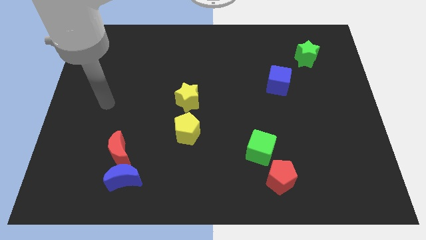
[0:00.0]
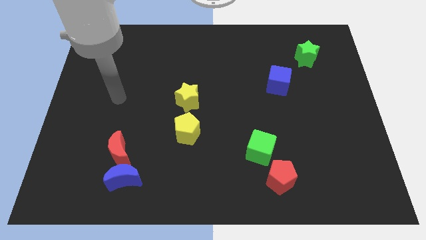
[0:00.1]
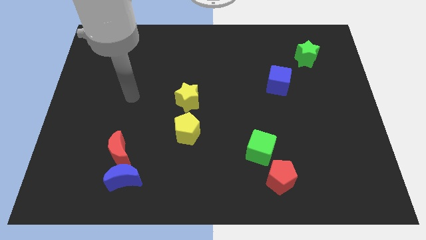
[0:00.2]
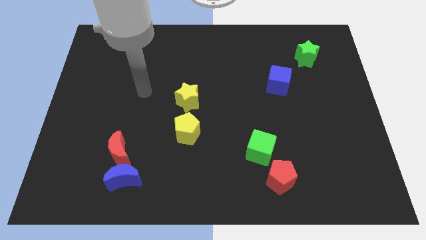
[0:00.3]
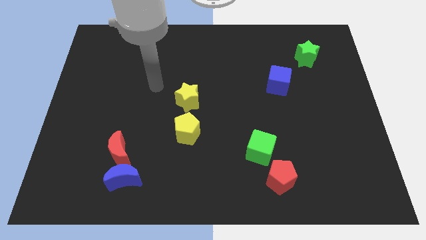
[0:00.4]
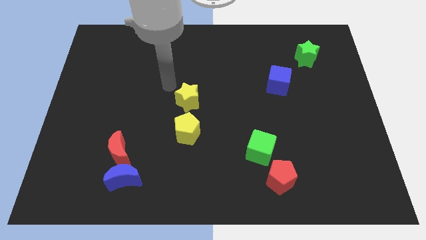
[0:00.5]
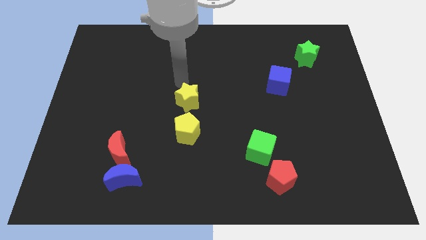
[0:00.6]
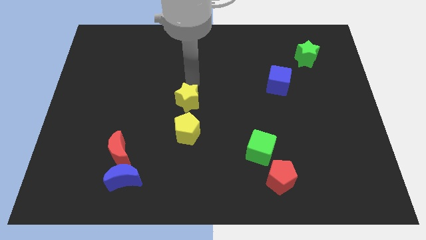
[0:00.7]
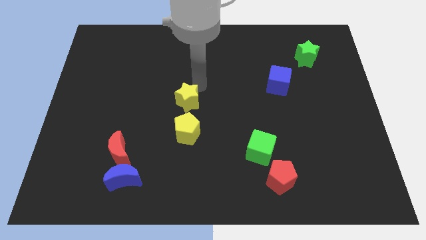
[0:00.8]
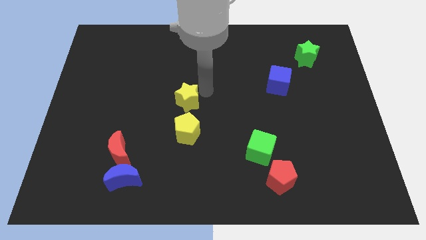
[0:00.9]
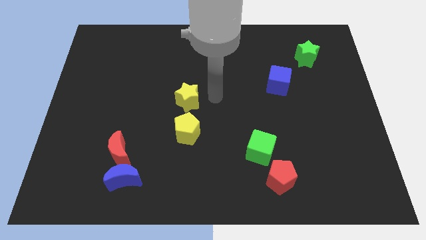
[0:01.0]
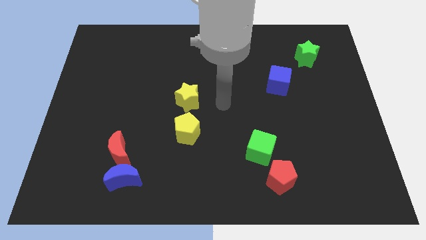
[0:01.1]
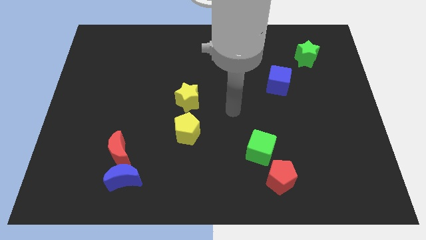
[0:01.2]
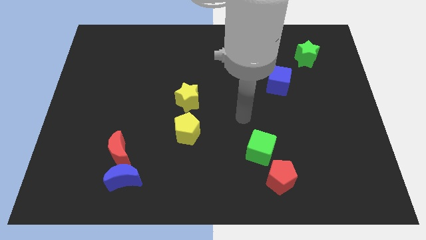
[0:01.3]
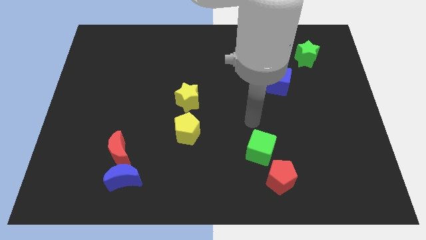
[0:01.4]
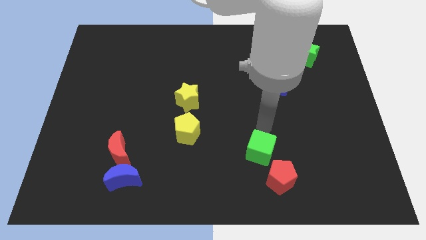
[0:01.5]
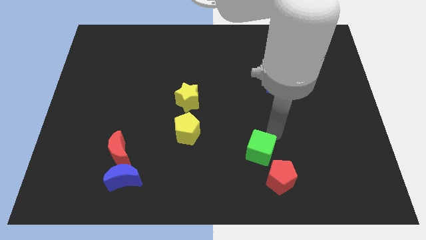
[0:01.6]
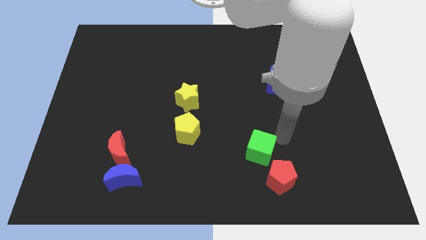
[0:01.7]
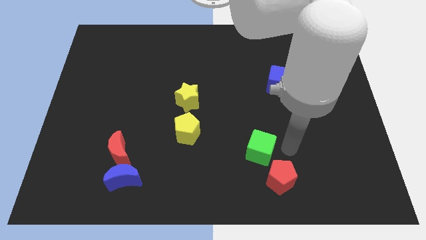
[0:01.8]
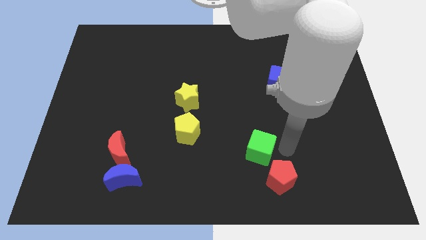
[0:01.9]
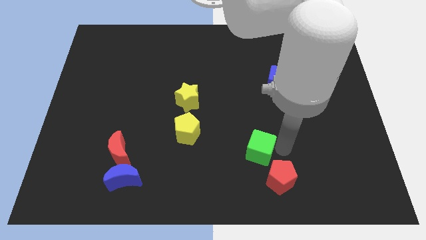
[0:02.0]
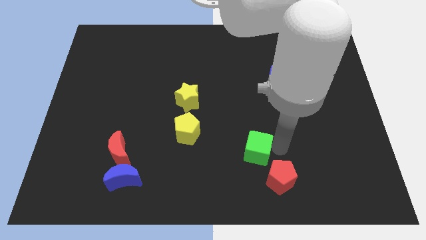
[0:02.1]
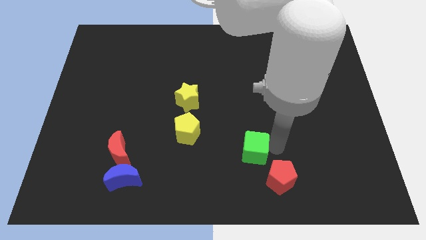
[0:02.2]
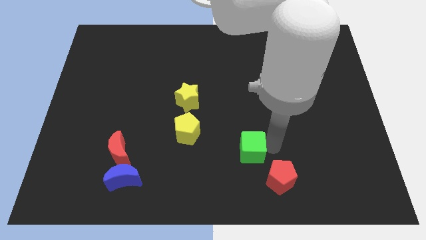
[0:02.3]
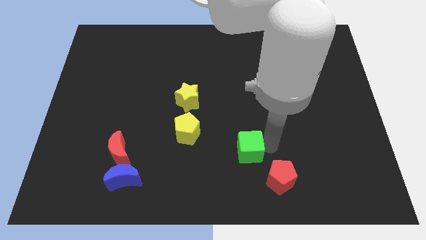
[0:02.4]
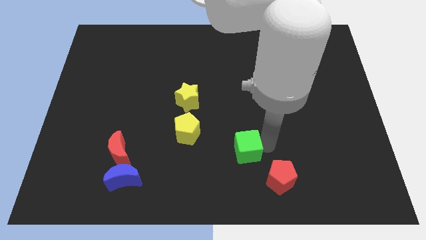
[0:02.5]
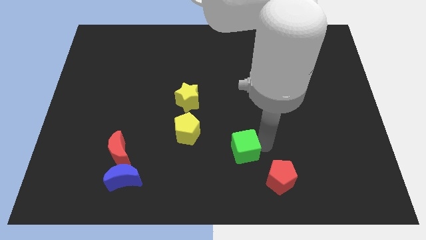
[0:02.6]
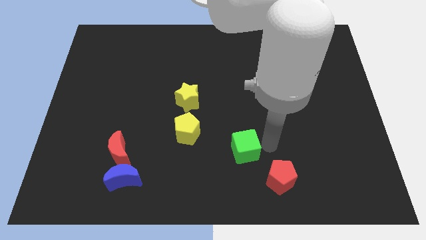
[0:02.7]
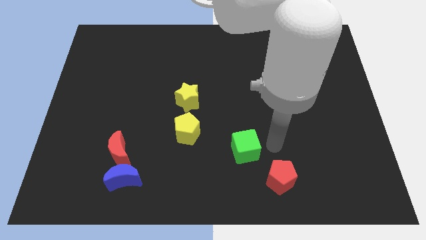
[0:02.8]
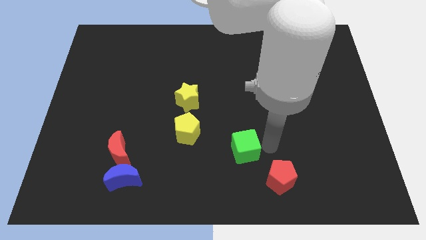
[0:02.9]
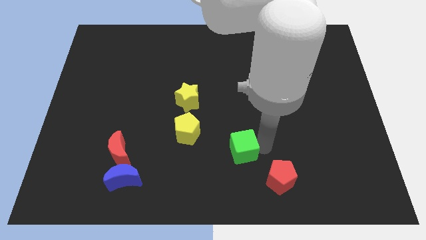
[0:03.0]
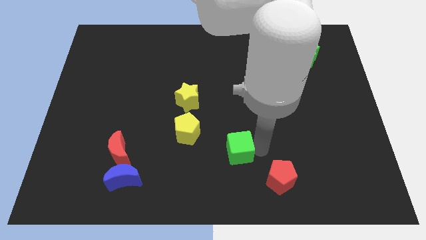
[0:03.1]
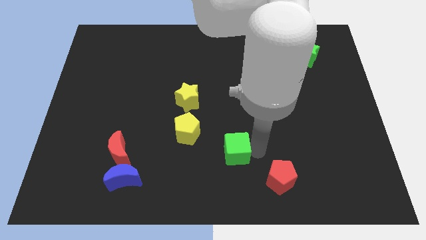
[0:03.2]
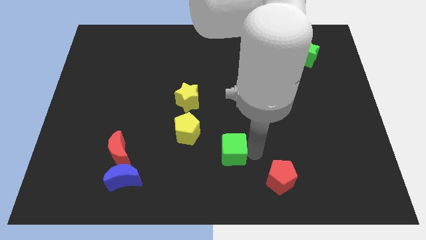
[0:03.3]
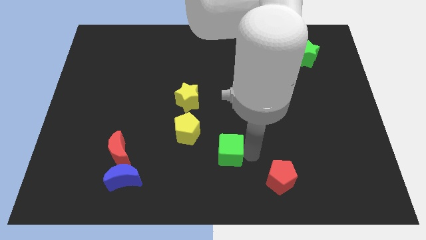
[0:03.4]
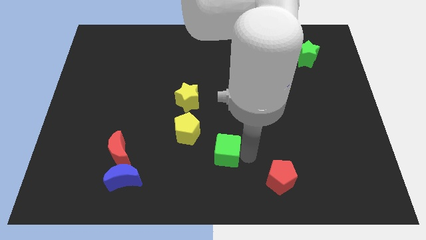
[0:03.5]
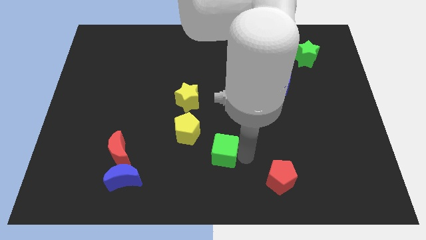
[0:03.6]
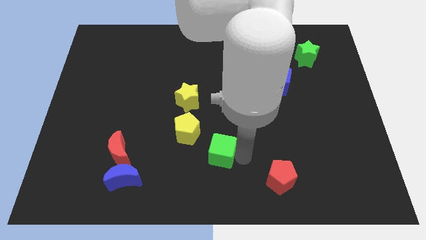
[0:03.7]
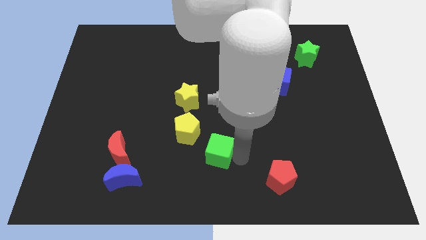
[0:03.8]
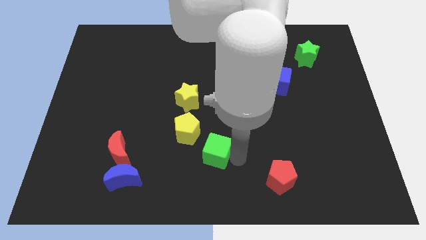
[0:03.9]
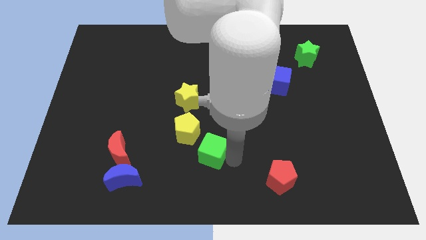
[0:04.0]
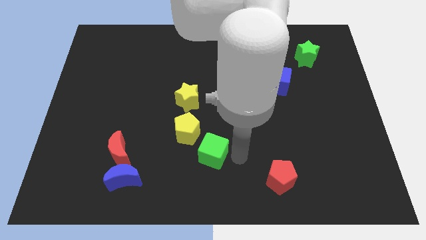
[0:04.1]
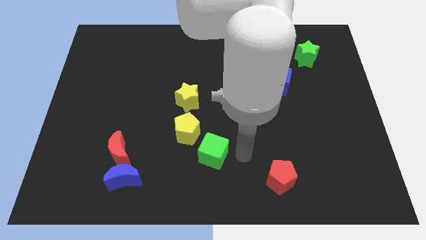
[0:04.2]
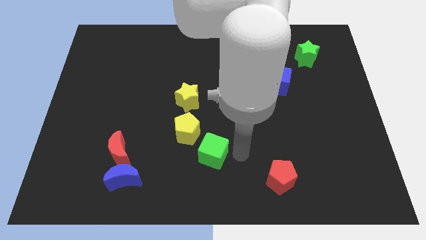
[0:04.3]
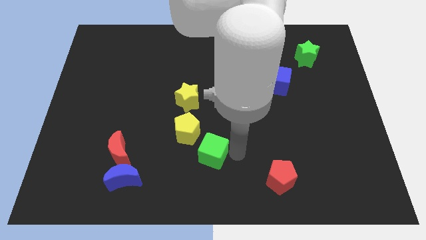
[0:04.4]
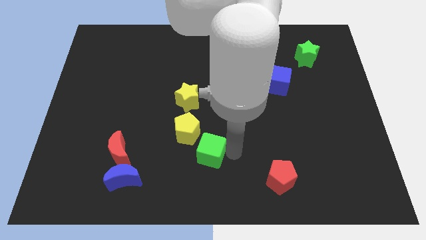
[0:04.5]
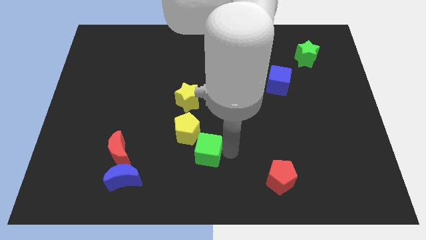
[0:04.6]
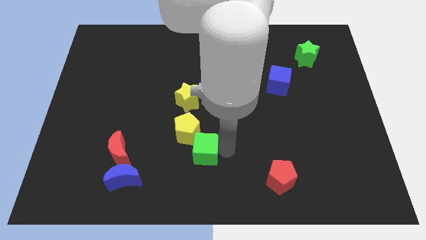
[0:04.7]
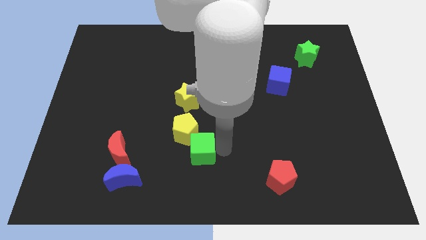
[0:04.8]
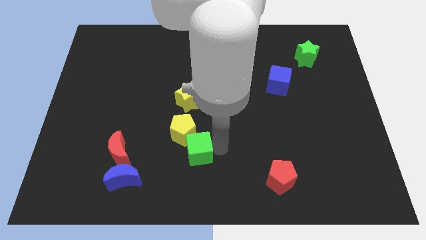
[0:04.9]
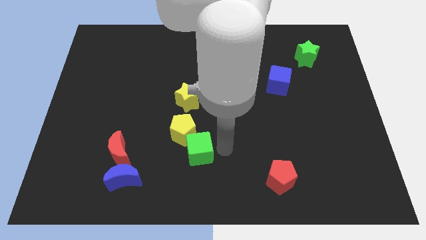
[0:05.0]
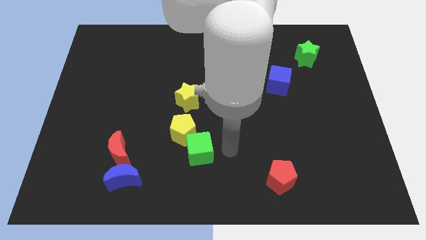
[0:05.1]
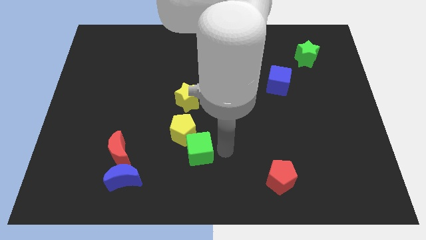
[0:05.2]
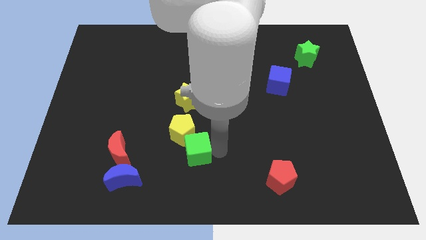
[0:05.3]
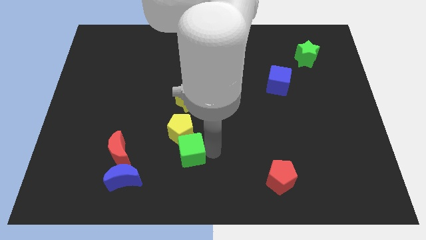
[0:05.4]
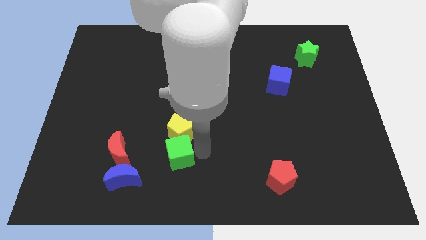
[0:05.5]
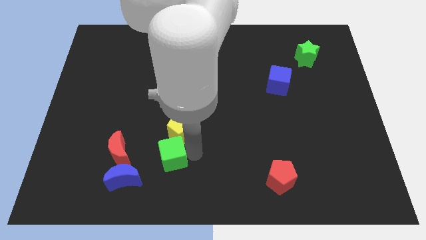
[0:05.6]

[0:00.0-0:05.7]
slide the green cube to the top right of the blue moon

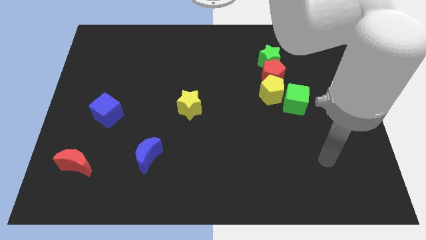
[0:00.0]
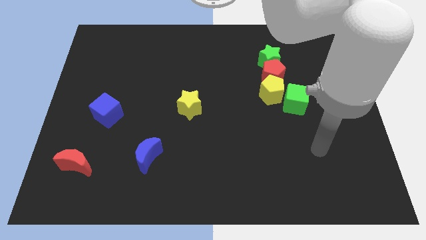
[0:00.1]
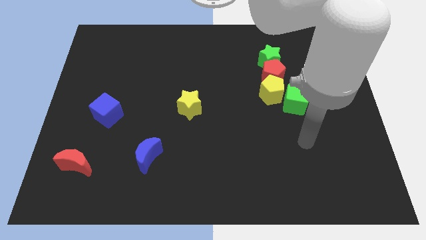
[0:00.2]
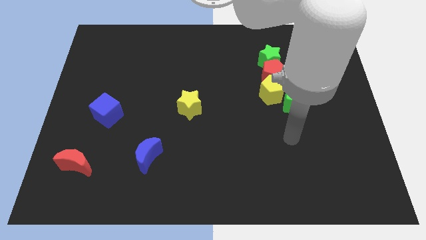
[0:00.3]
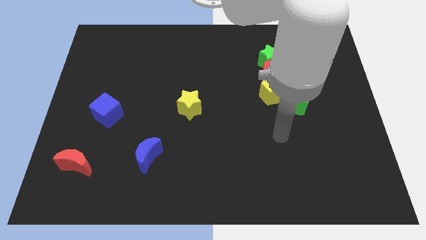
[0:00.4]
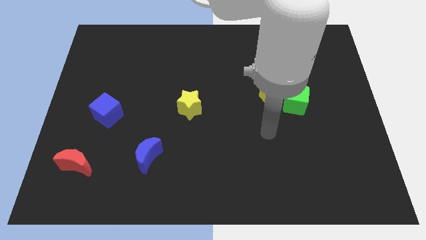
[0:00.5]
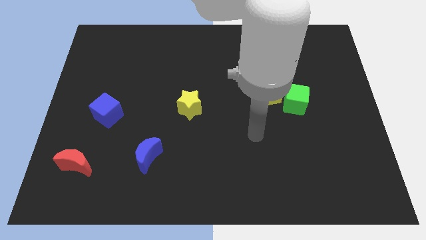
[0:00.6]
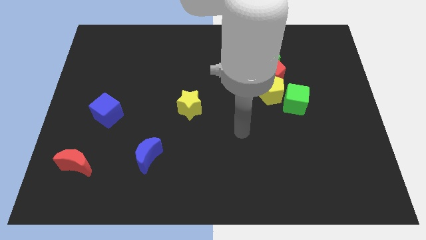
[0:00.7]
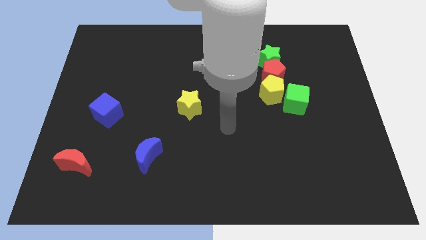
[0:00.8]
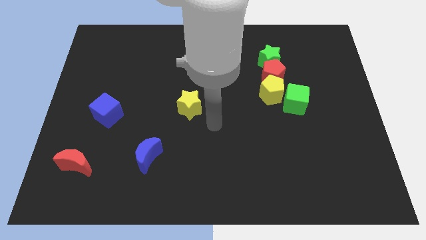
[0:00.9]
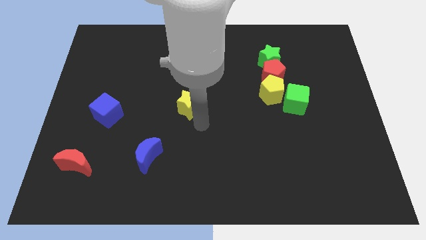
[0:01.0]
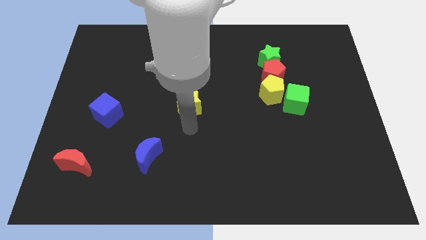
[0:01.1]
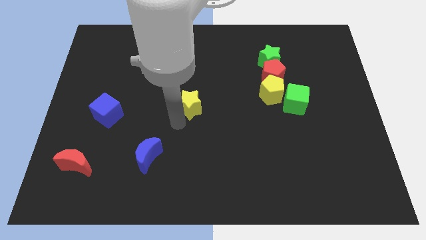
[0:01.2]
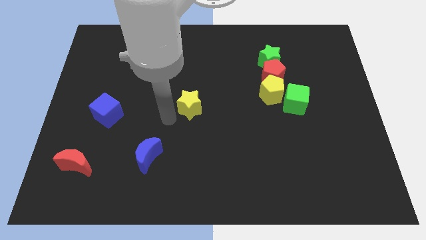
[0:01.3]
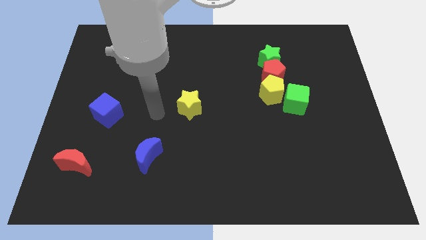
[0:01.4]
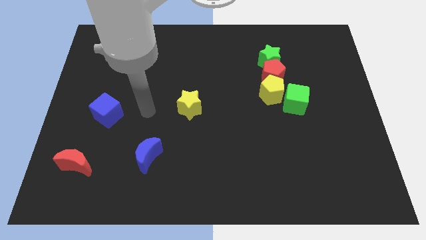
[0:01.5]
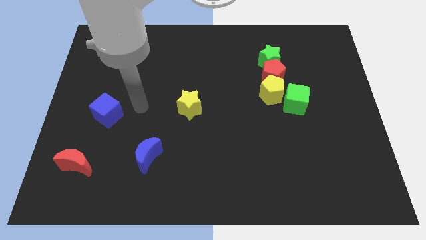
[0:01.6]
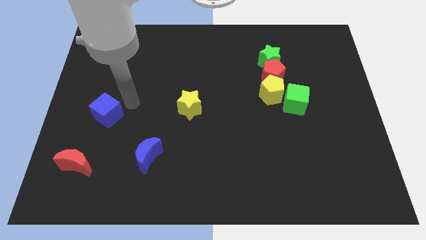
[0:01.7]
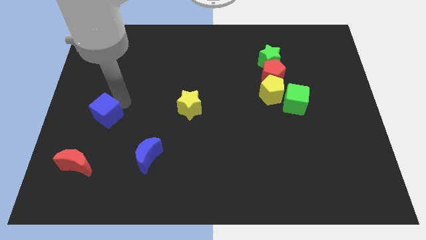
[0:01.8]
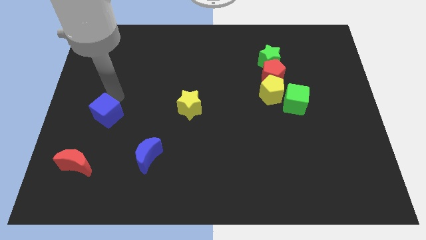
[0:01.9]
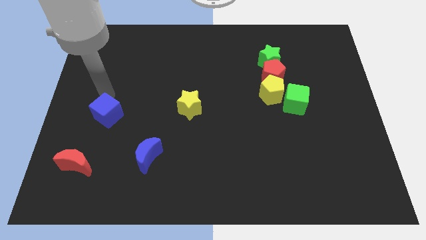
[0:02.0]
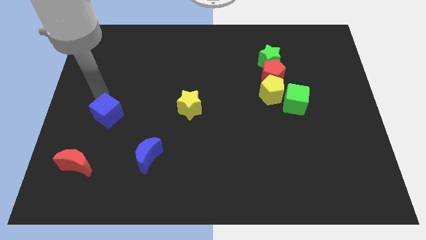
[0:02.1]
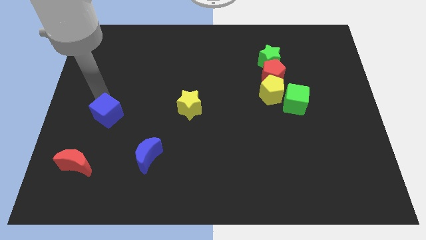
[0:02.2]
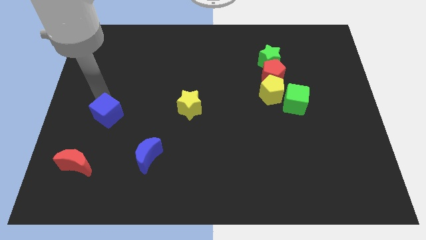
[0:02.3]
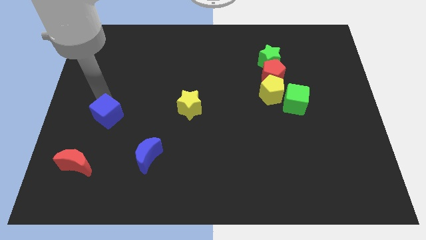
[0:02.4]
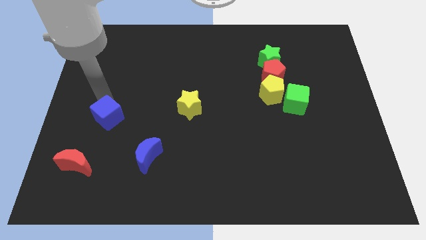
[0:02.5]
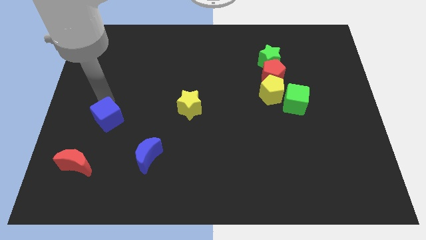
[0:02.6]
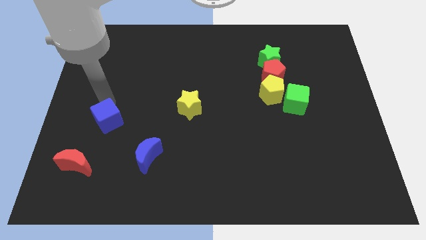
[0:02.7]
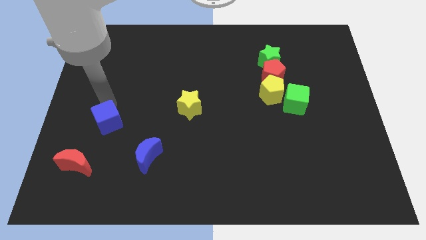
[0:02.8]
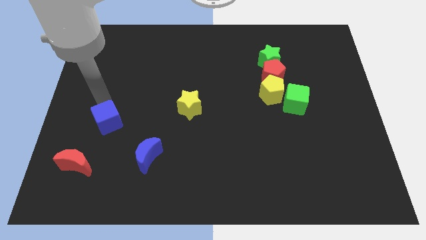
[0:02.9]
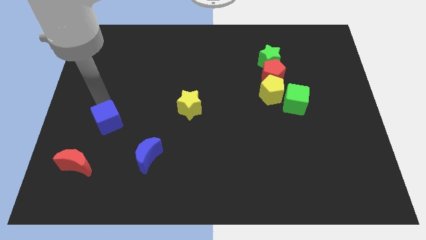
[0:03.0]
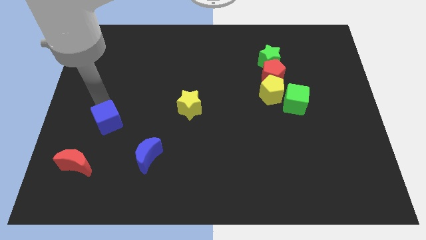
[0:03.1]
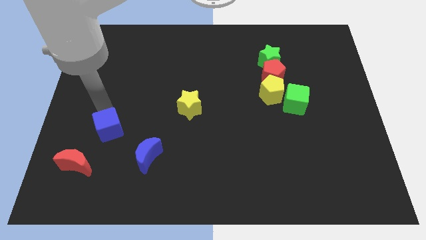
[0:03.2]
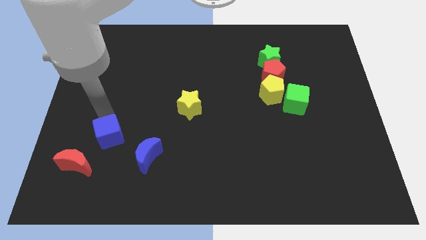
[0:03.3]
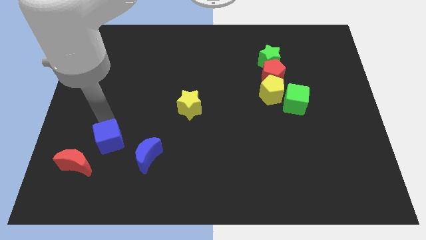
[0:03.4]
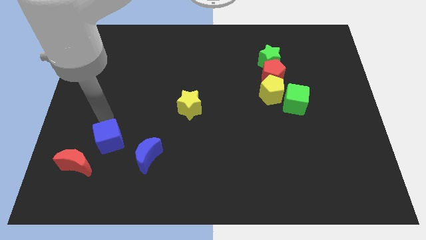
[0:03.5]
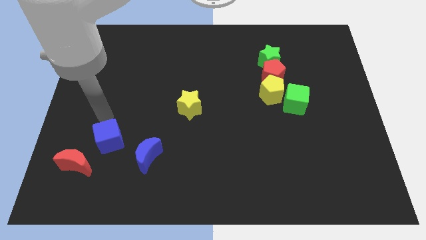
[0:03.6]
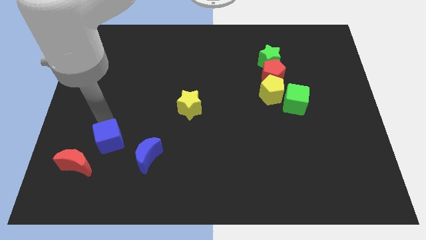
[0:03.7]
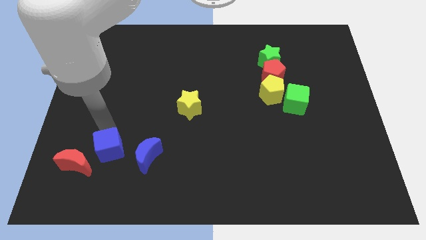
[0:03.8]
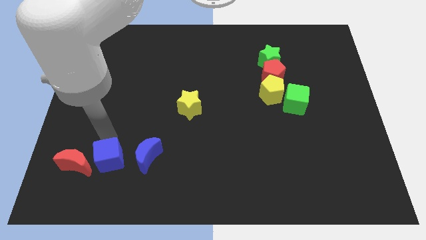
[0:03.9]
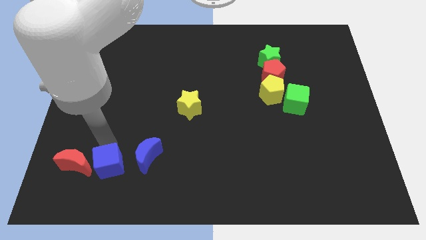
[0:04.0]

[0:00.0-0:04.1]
push the blue cube to the bottom left of the blue moon
